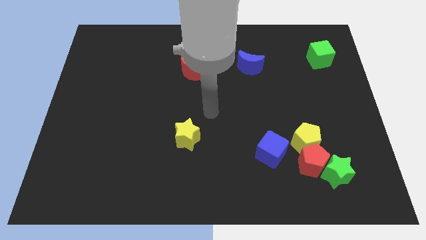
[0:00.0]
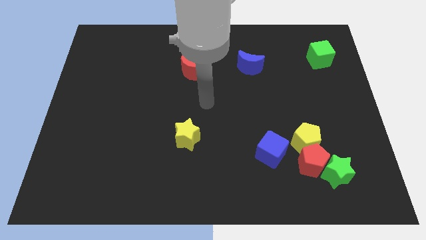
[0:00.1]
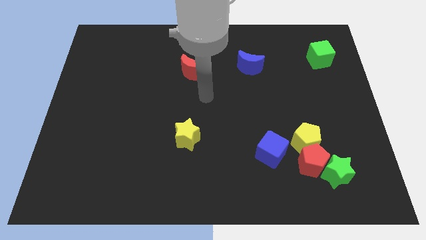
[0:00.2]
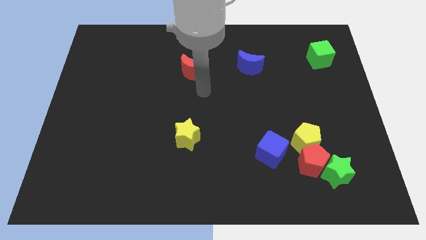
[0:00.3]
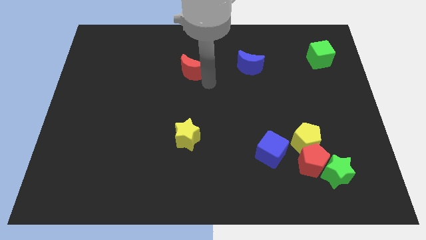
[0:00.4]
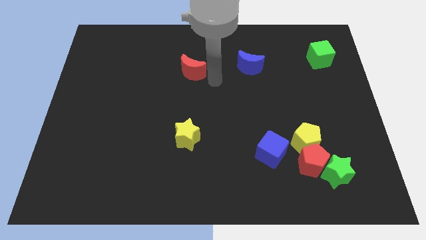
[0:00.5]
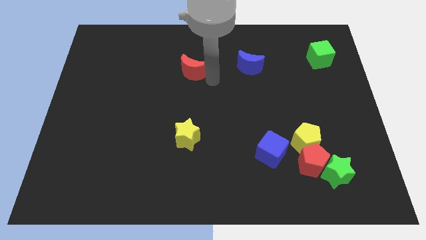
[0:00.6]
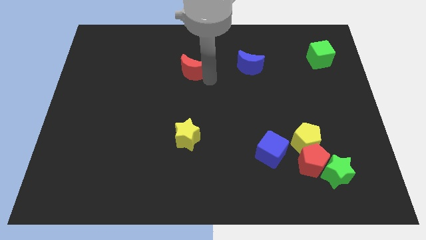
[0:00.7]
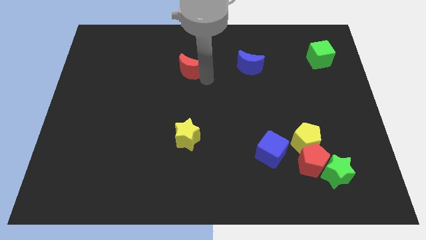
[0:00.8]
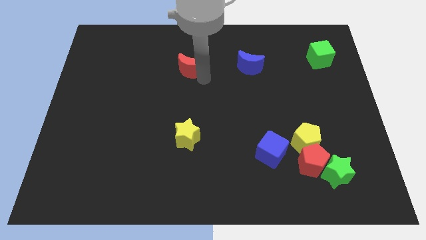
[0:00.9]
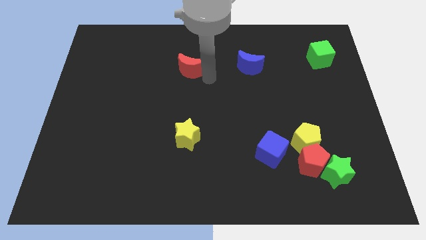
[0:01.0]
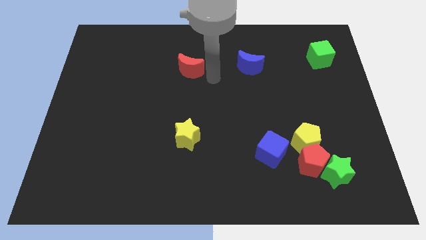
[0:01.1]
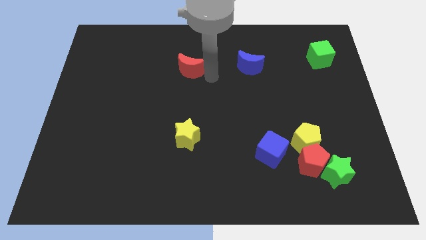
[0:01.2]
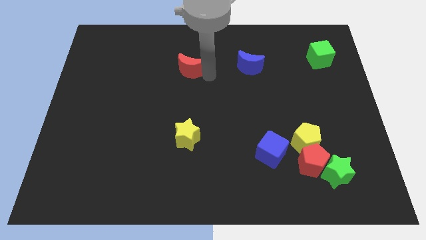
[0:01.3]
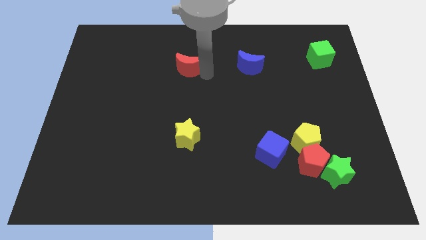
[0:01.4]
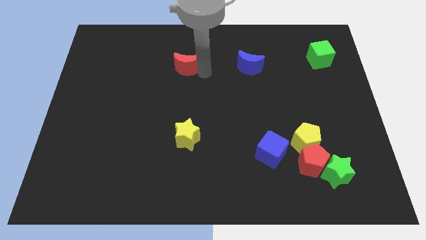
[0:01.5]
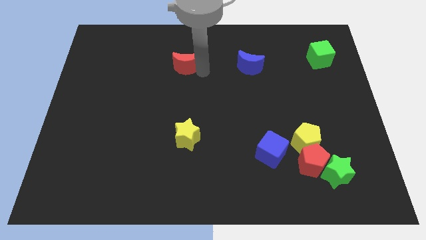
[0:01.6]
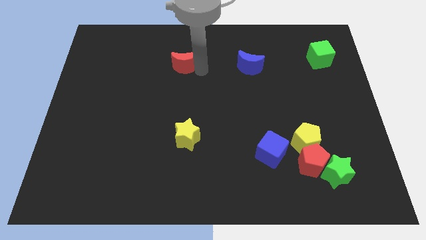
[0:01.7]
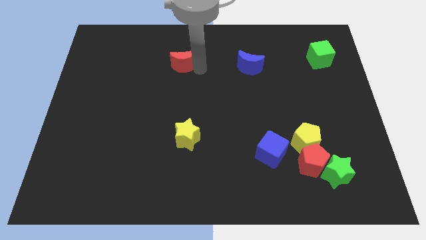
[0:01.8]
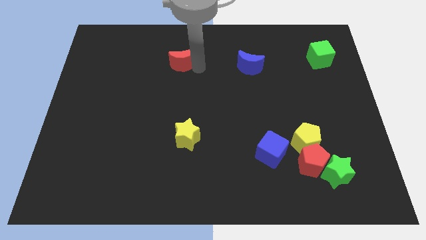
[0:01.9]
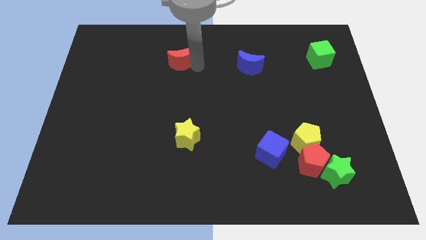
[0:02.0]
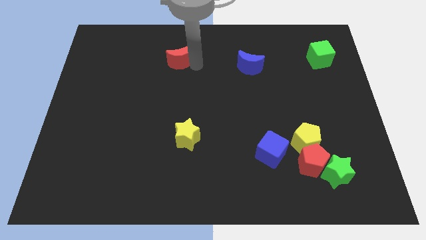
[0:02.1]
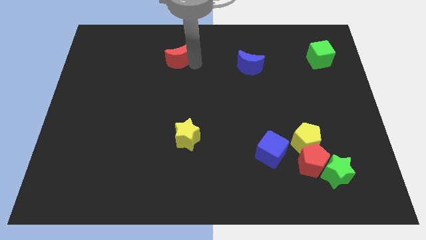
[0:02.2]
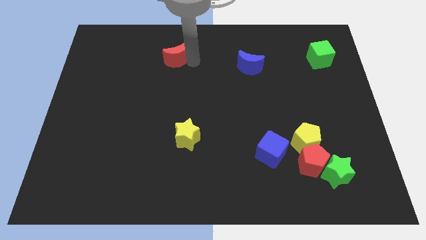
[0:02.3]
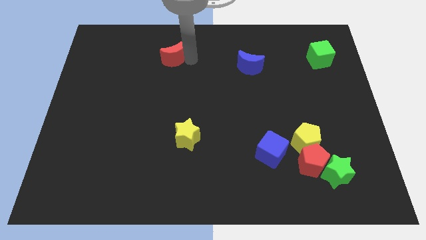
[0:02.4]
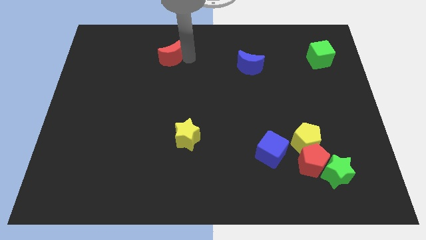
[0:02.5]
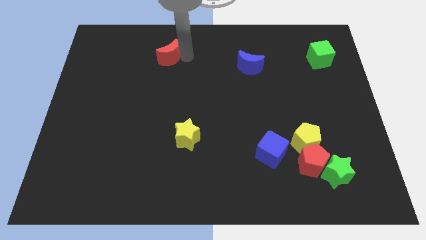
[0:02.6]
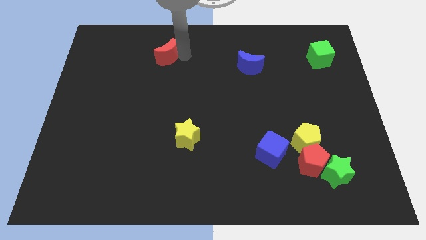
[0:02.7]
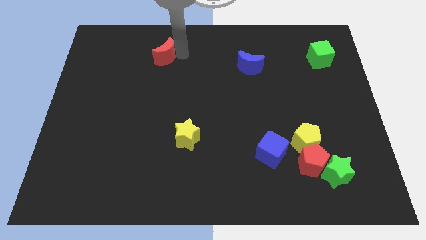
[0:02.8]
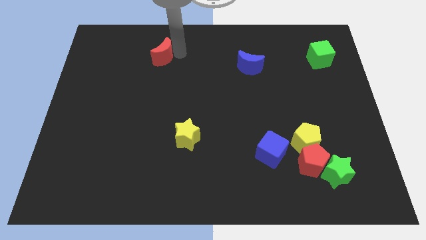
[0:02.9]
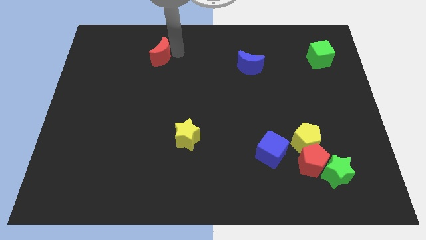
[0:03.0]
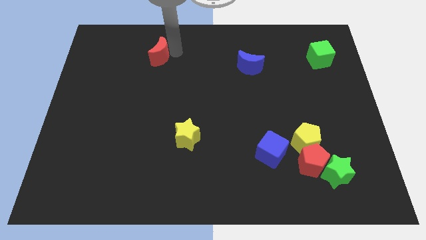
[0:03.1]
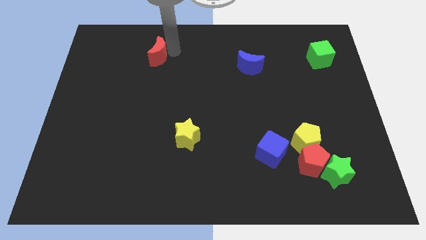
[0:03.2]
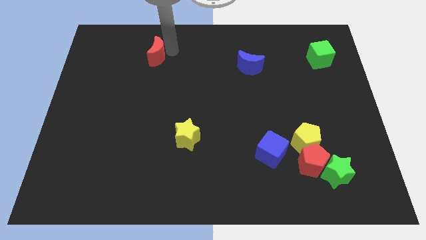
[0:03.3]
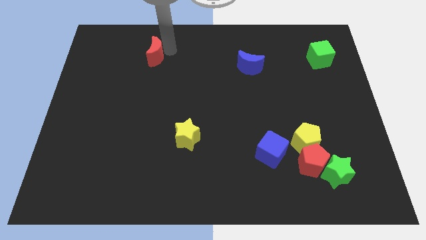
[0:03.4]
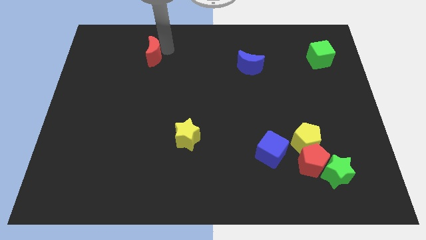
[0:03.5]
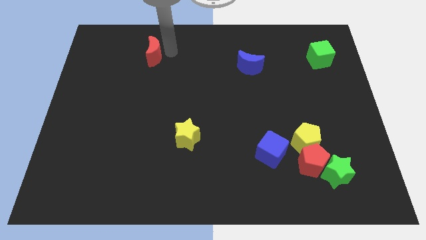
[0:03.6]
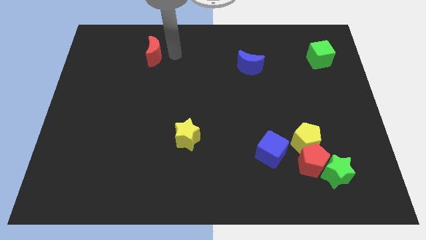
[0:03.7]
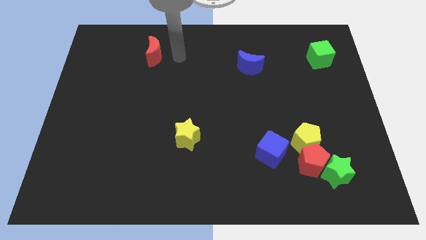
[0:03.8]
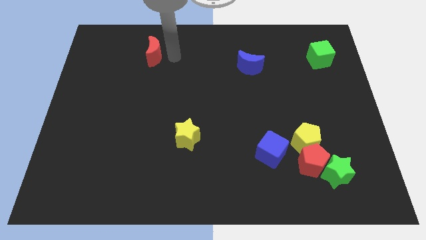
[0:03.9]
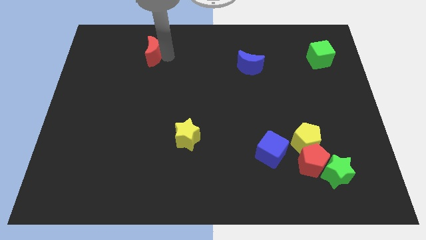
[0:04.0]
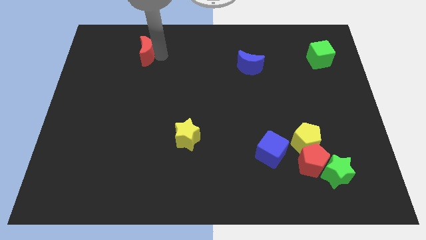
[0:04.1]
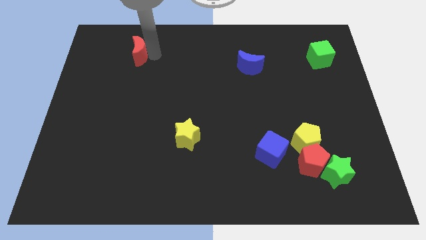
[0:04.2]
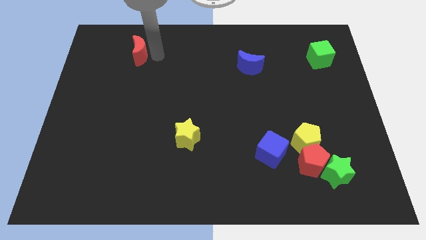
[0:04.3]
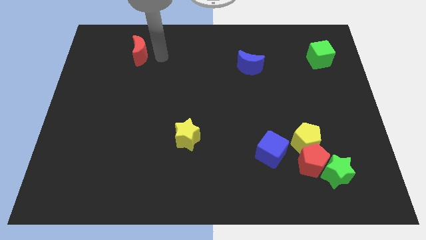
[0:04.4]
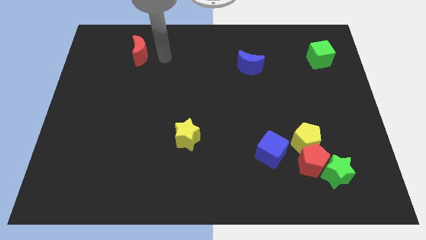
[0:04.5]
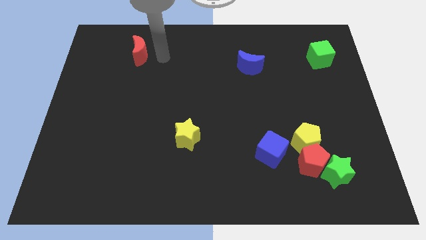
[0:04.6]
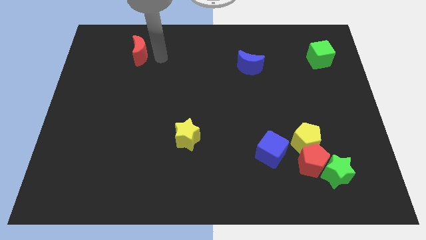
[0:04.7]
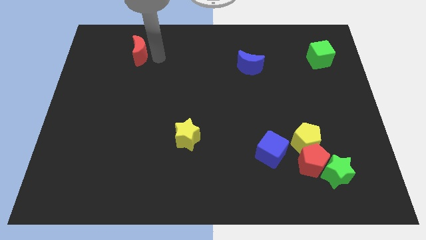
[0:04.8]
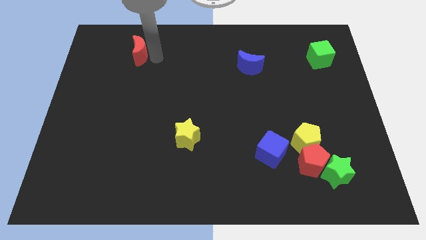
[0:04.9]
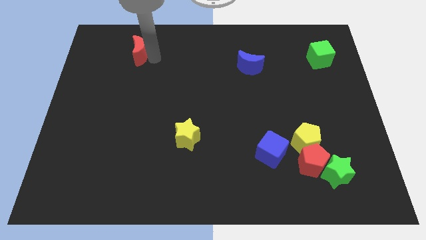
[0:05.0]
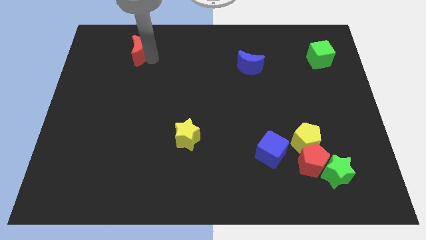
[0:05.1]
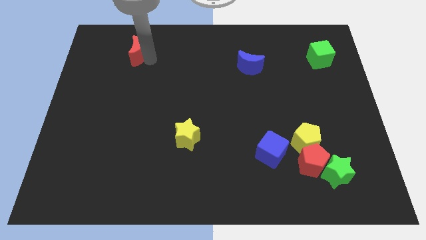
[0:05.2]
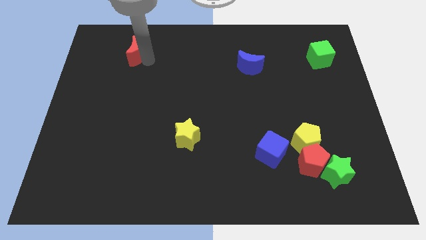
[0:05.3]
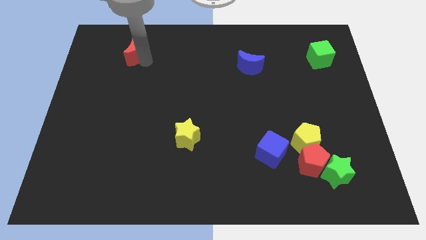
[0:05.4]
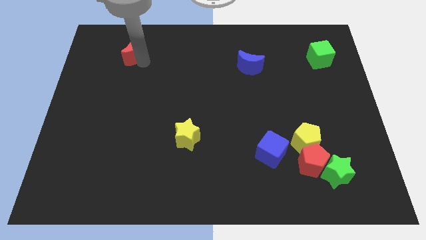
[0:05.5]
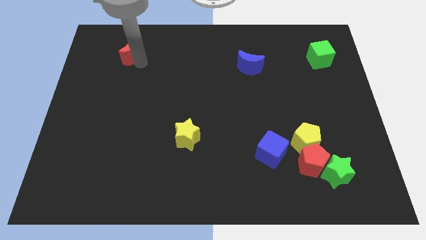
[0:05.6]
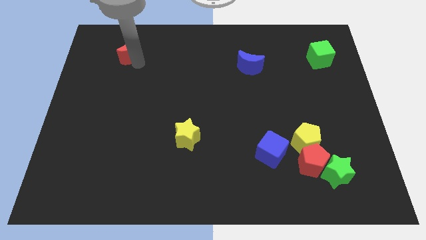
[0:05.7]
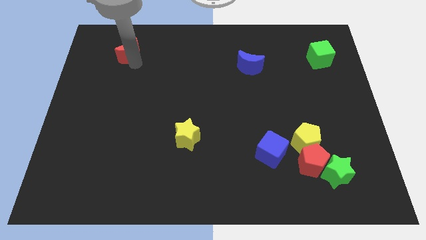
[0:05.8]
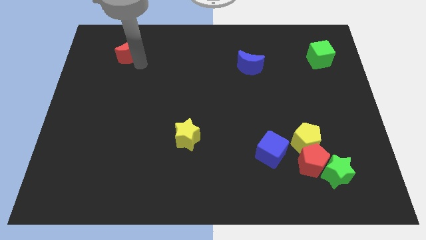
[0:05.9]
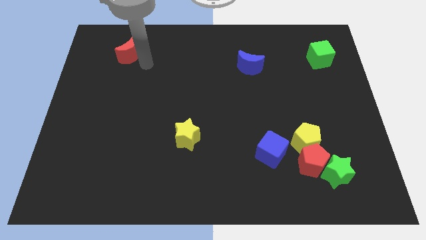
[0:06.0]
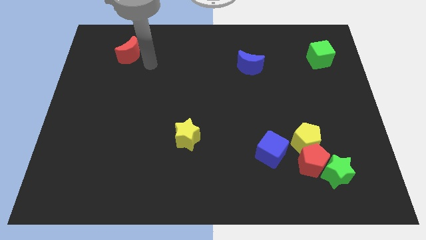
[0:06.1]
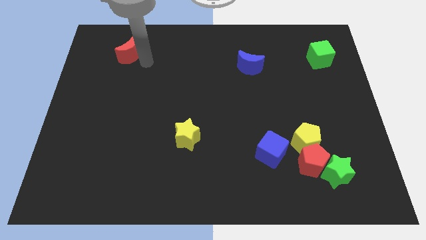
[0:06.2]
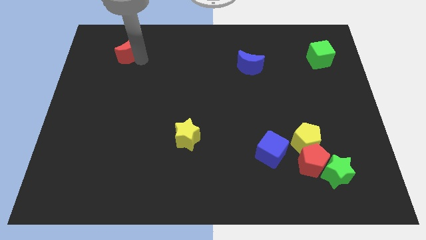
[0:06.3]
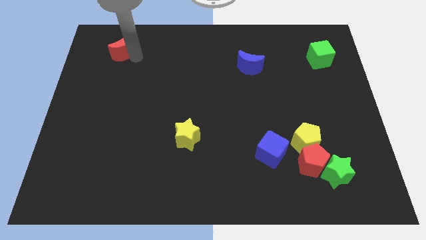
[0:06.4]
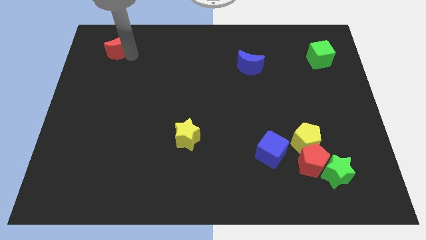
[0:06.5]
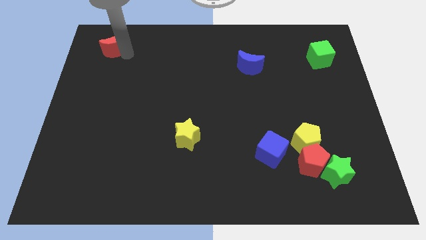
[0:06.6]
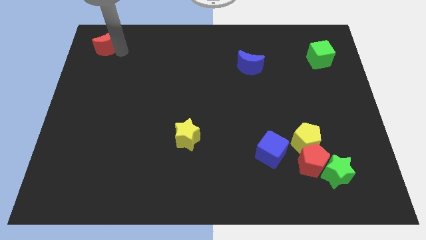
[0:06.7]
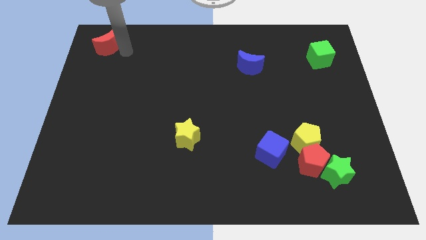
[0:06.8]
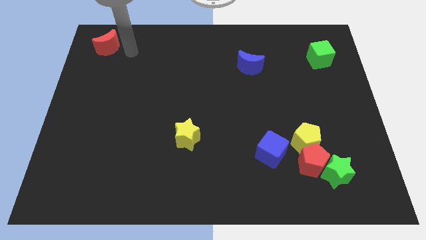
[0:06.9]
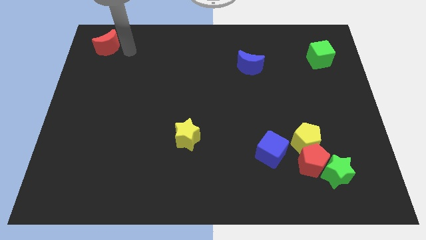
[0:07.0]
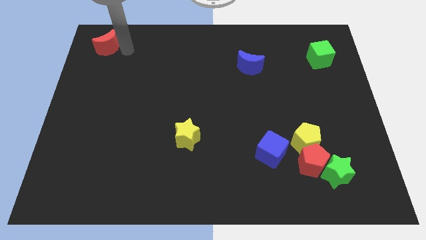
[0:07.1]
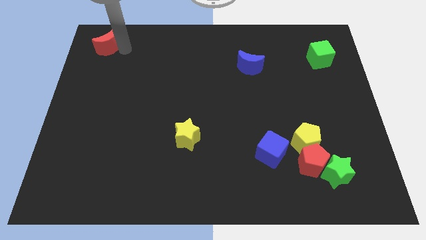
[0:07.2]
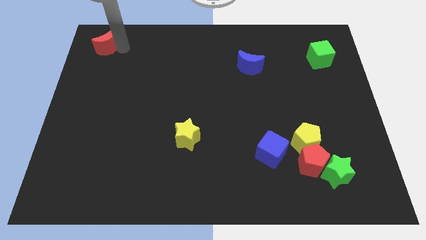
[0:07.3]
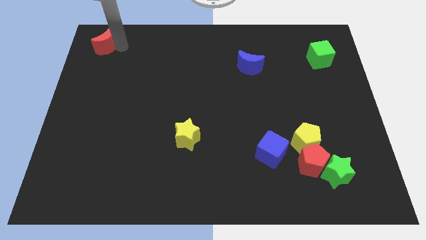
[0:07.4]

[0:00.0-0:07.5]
move the red moon to the top left of the board
